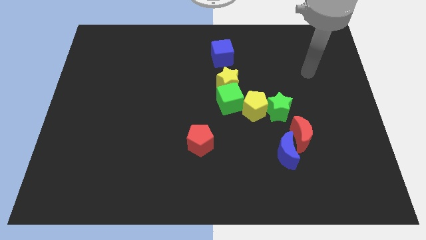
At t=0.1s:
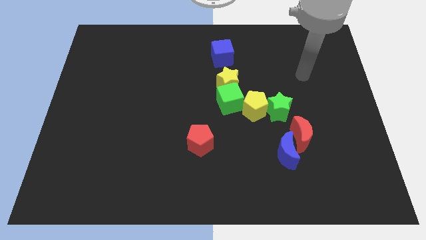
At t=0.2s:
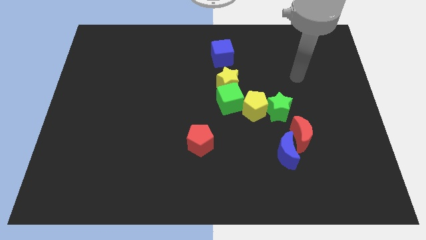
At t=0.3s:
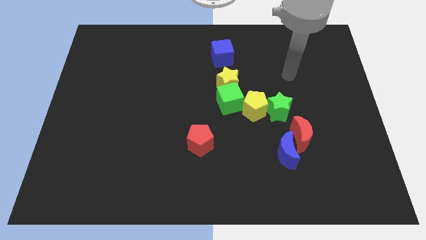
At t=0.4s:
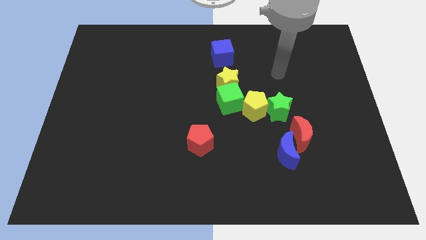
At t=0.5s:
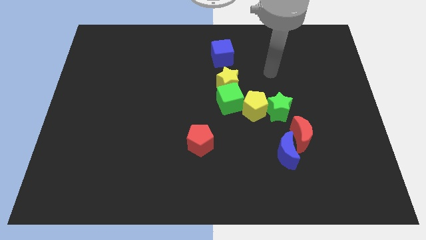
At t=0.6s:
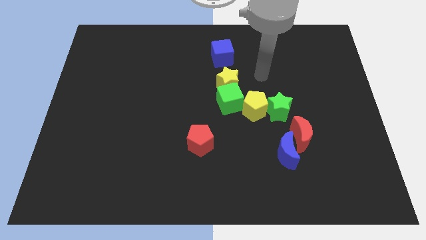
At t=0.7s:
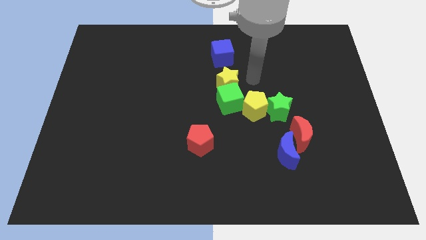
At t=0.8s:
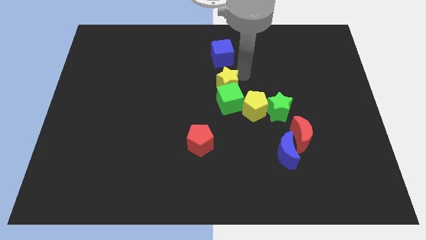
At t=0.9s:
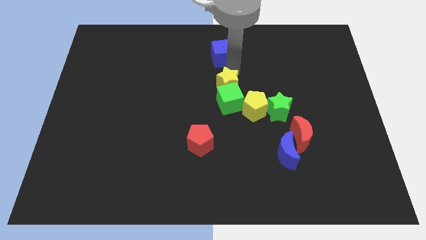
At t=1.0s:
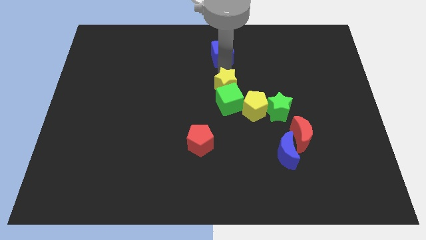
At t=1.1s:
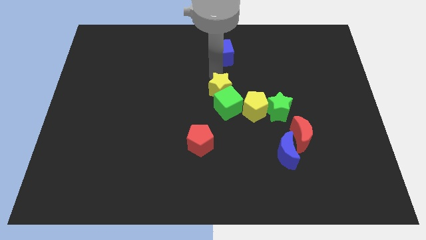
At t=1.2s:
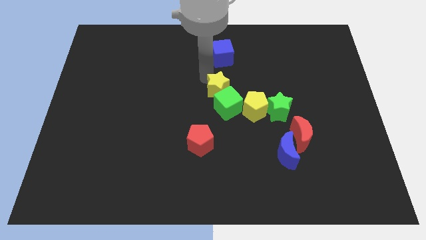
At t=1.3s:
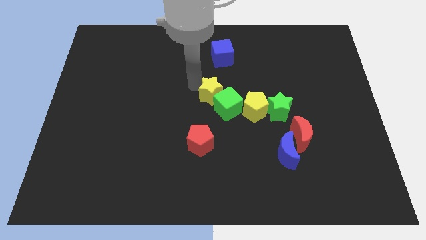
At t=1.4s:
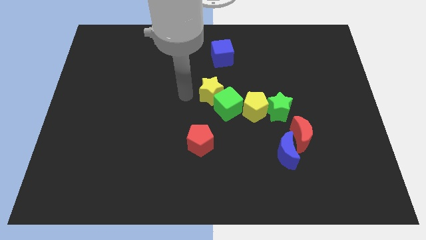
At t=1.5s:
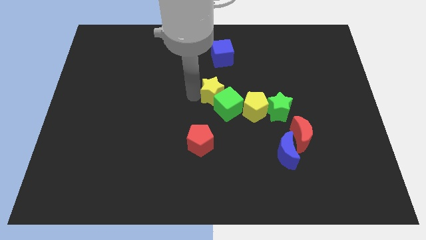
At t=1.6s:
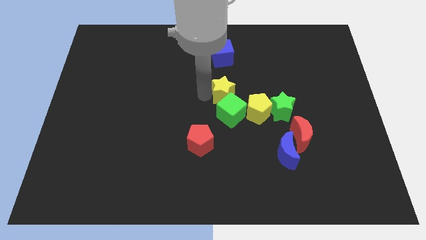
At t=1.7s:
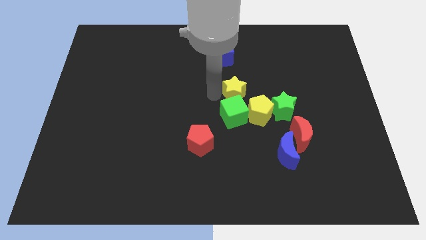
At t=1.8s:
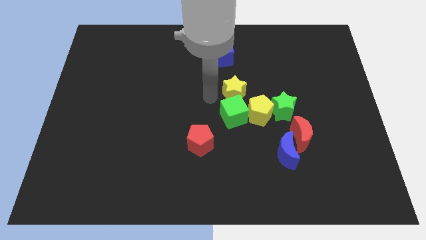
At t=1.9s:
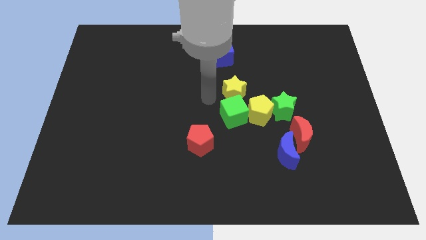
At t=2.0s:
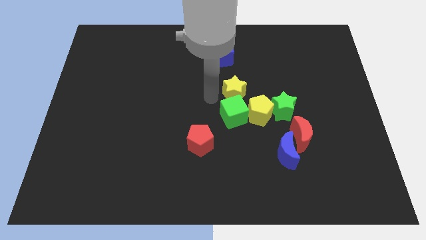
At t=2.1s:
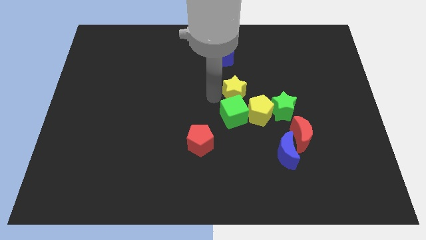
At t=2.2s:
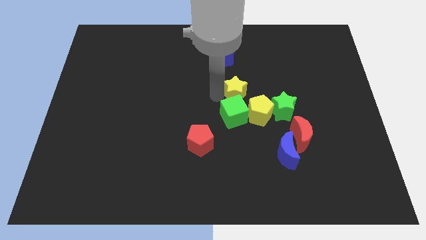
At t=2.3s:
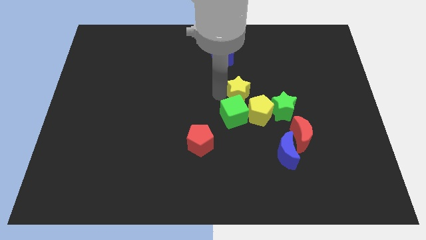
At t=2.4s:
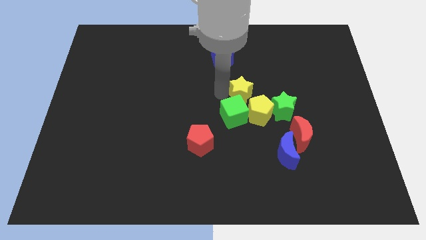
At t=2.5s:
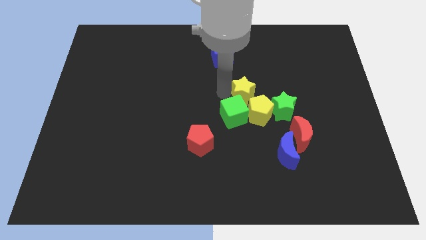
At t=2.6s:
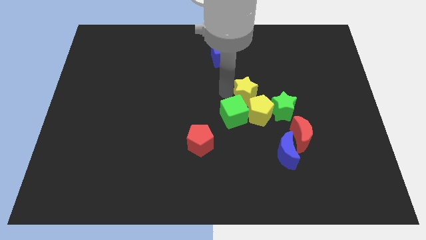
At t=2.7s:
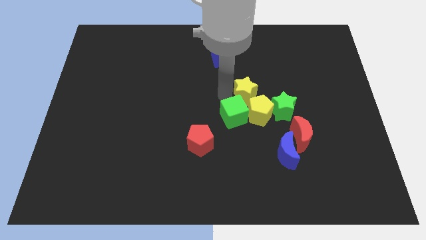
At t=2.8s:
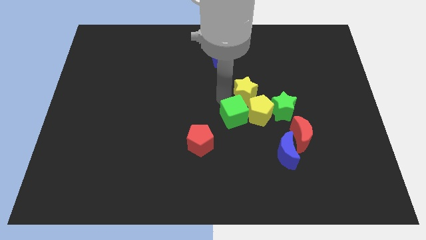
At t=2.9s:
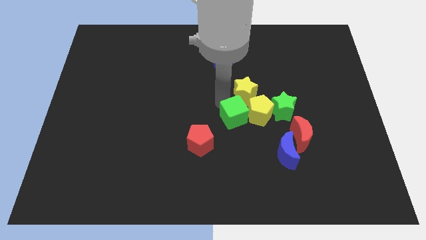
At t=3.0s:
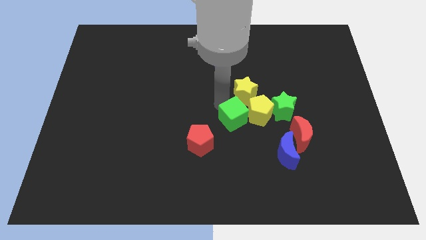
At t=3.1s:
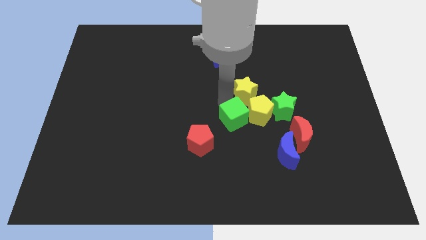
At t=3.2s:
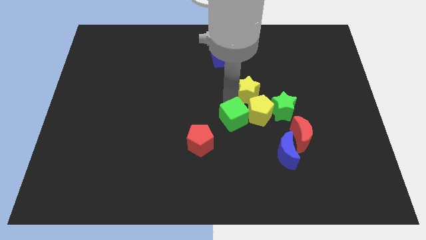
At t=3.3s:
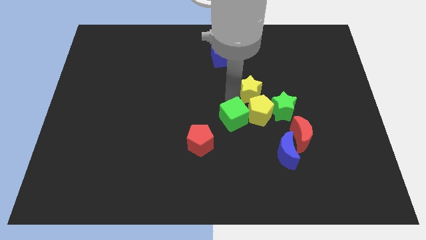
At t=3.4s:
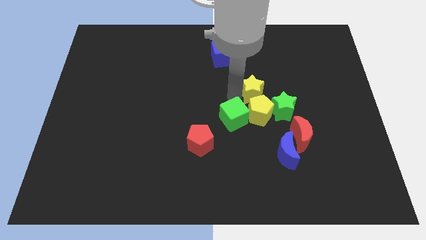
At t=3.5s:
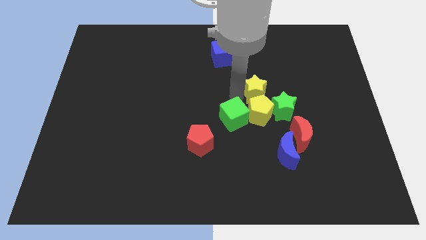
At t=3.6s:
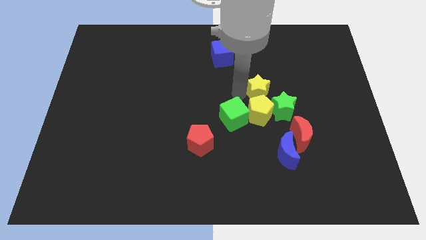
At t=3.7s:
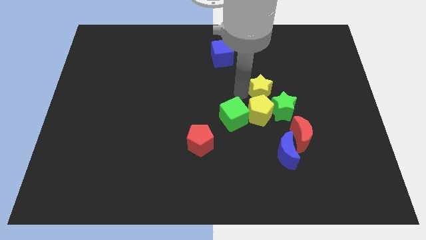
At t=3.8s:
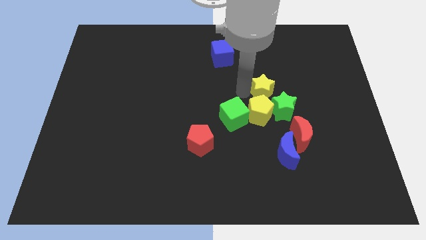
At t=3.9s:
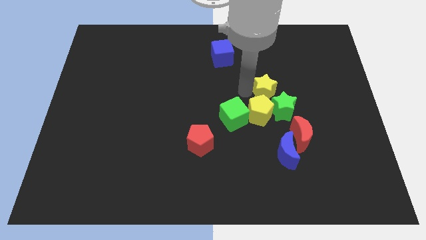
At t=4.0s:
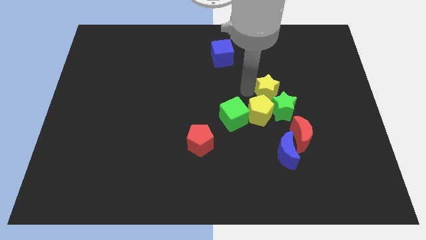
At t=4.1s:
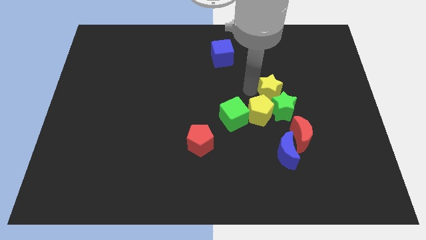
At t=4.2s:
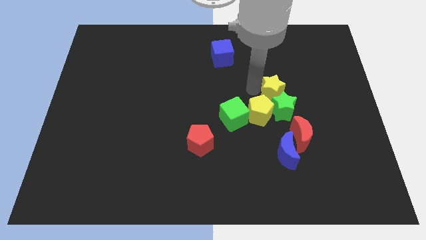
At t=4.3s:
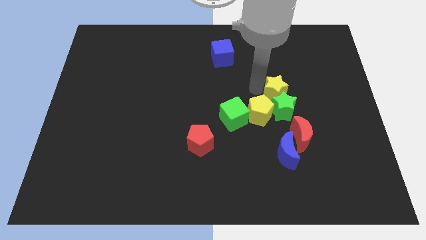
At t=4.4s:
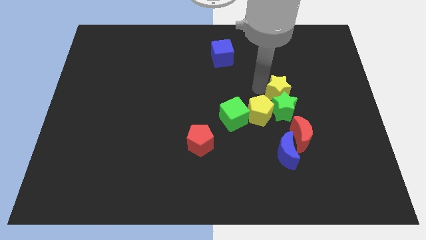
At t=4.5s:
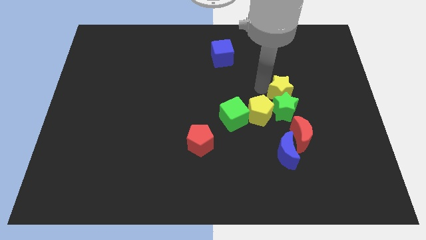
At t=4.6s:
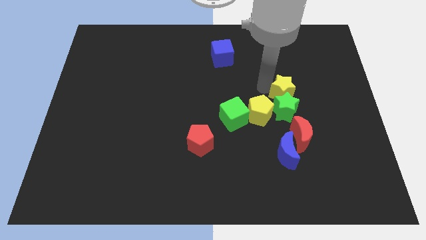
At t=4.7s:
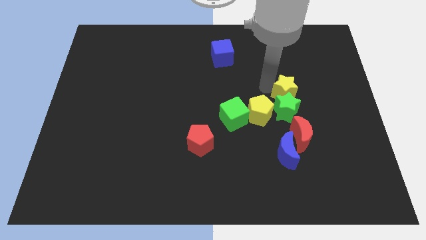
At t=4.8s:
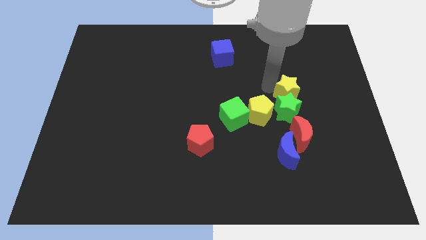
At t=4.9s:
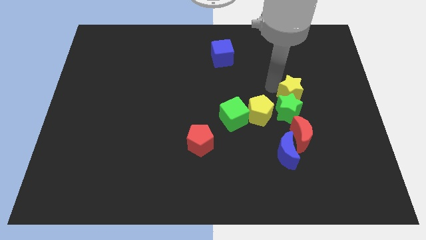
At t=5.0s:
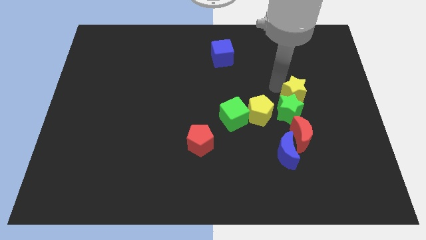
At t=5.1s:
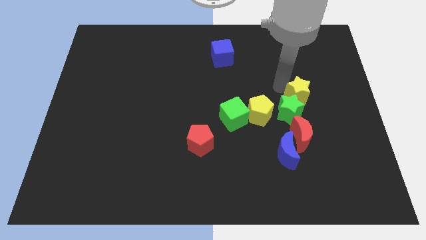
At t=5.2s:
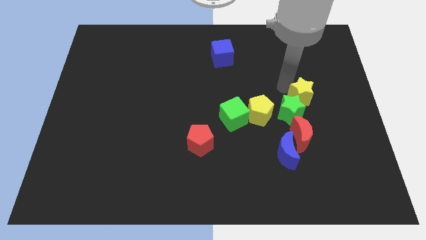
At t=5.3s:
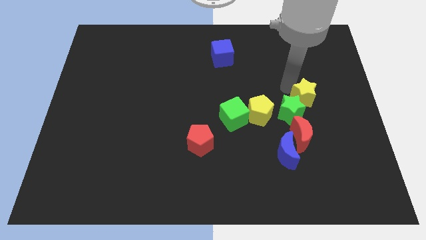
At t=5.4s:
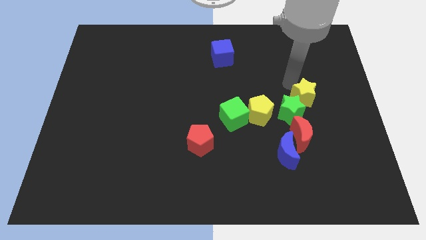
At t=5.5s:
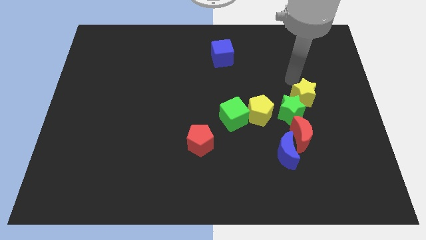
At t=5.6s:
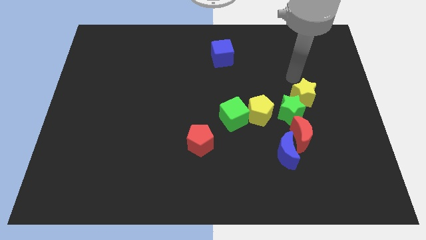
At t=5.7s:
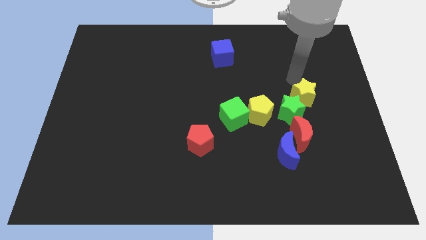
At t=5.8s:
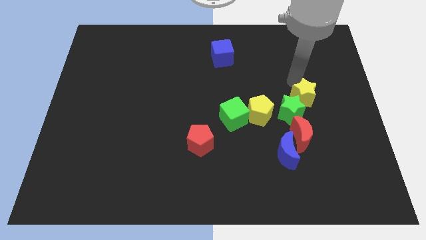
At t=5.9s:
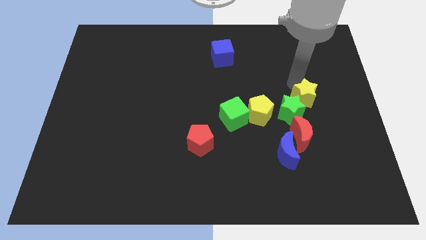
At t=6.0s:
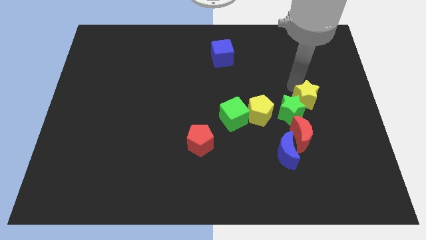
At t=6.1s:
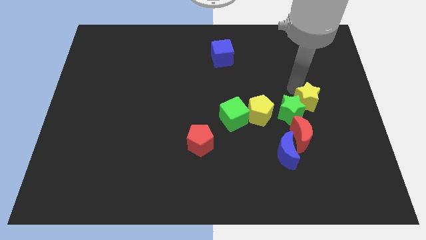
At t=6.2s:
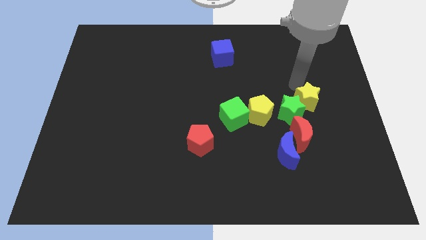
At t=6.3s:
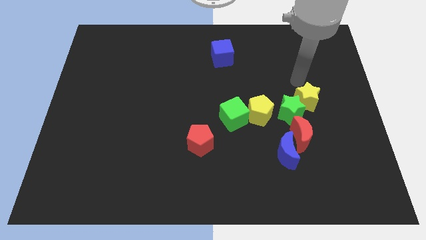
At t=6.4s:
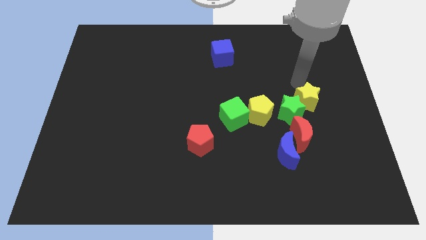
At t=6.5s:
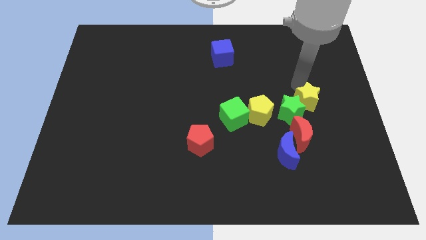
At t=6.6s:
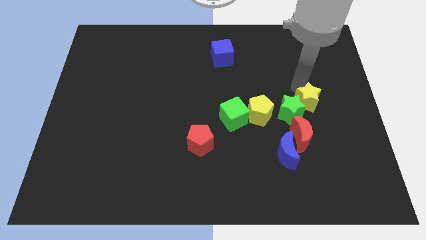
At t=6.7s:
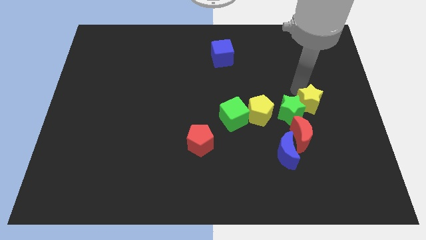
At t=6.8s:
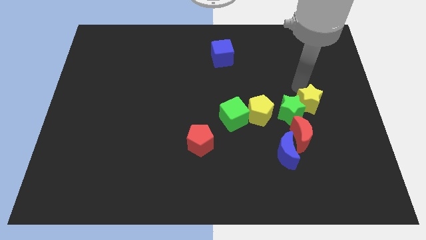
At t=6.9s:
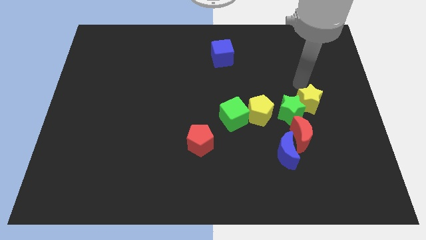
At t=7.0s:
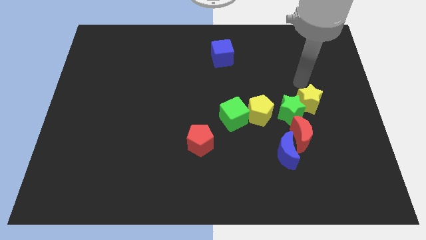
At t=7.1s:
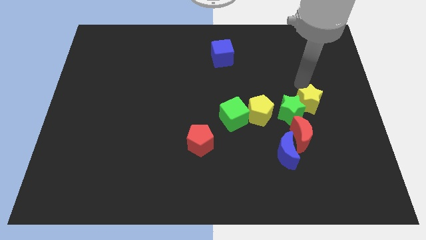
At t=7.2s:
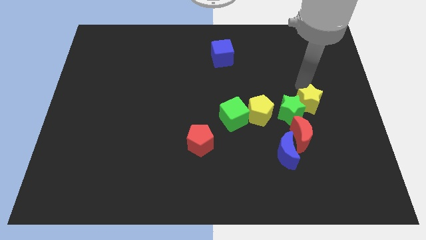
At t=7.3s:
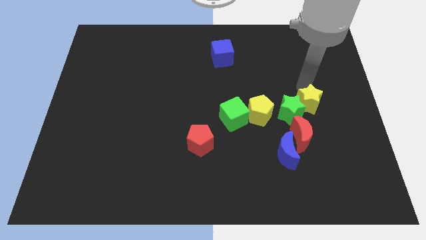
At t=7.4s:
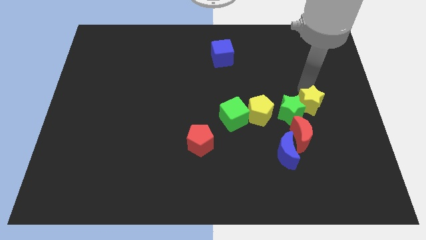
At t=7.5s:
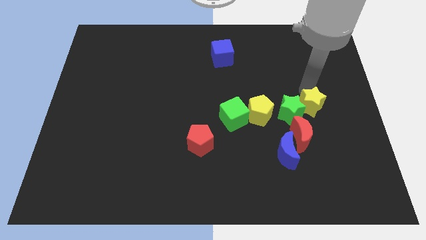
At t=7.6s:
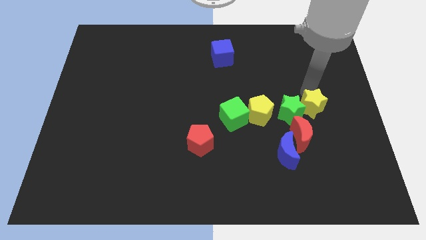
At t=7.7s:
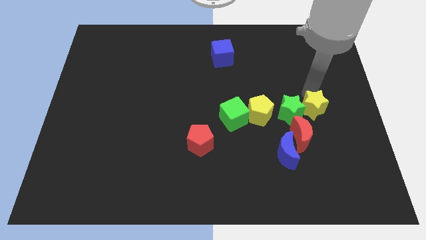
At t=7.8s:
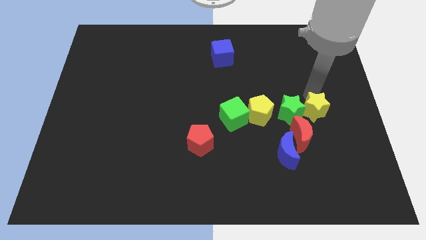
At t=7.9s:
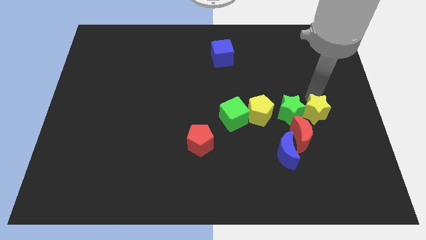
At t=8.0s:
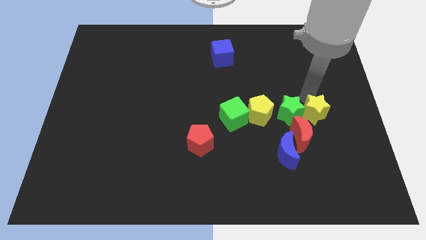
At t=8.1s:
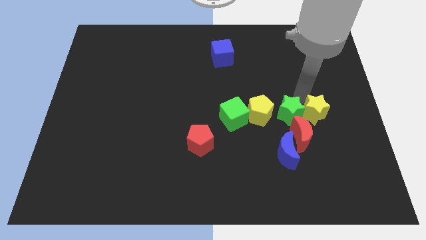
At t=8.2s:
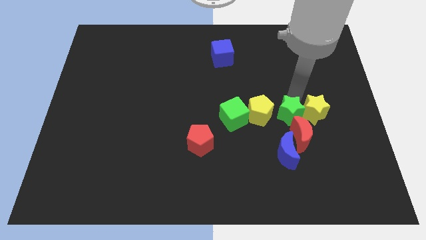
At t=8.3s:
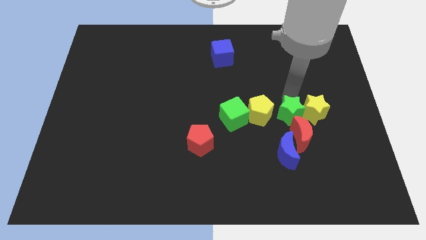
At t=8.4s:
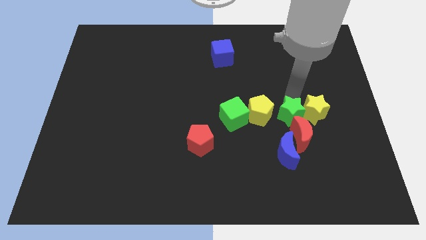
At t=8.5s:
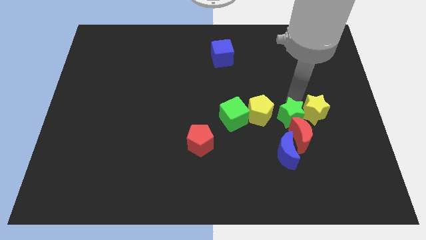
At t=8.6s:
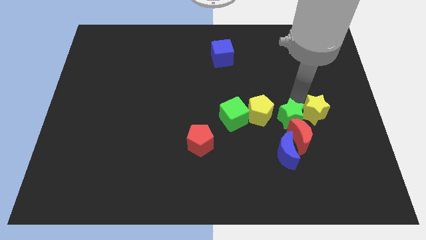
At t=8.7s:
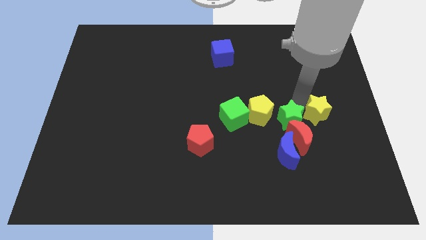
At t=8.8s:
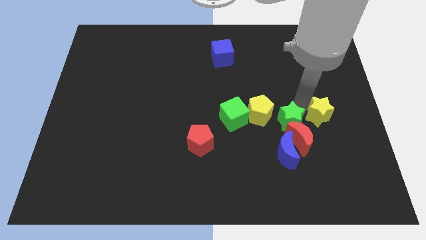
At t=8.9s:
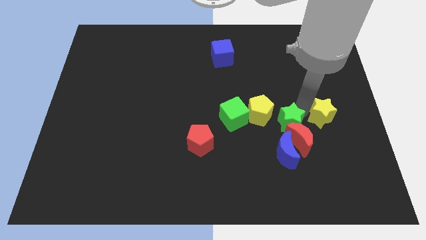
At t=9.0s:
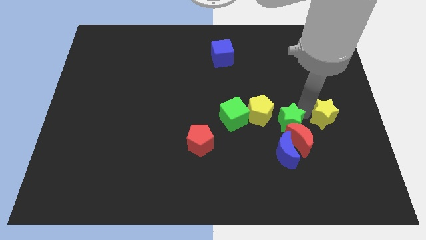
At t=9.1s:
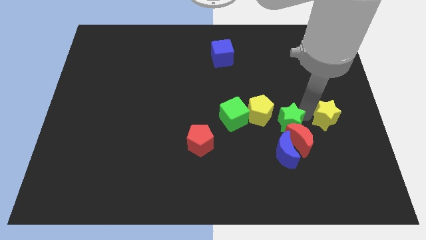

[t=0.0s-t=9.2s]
move the yellow star down and to the right
